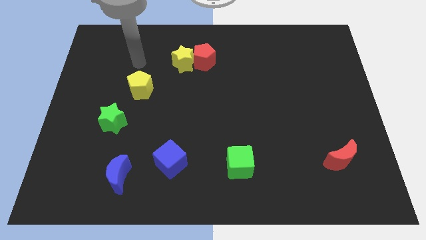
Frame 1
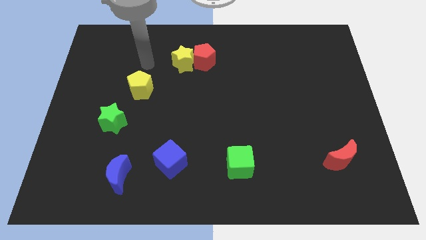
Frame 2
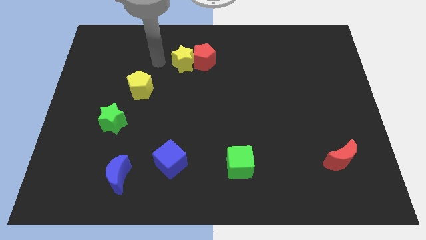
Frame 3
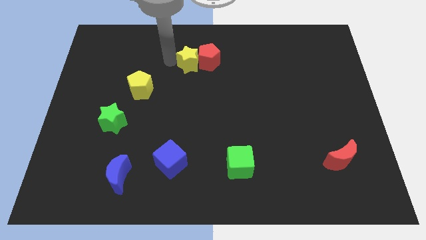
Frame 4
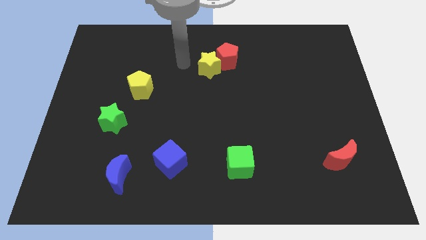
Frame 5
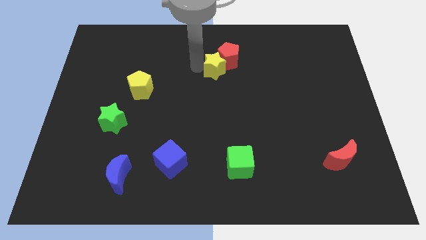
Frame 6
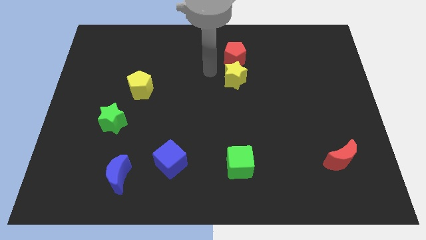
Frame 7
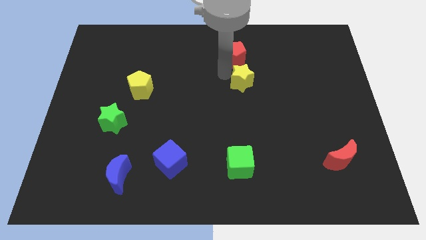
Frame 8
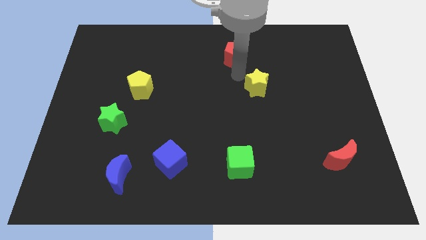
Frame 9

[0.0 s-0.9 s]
move the red pentagon away from the yellow star

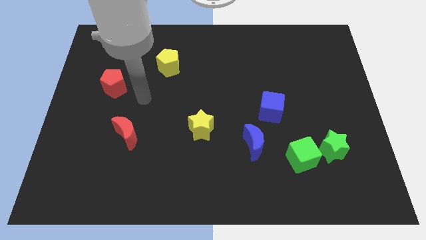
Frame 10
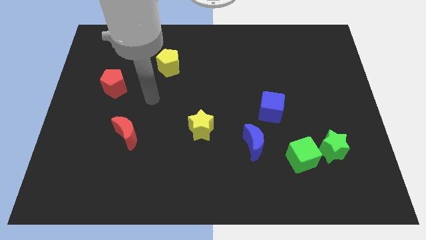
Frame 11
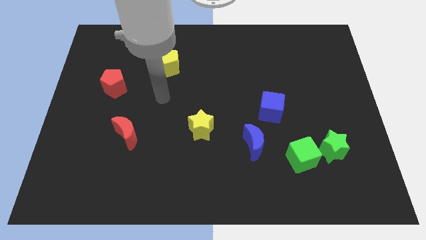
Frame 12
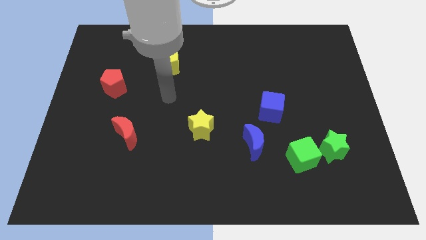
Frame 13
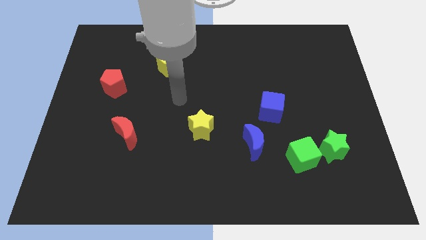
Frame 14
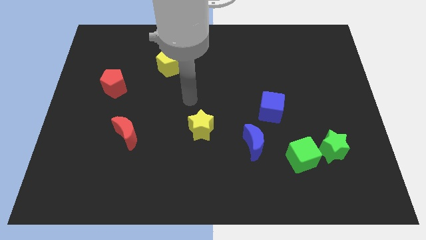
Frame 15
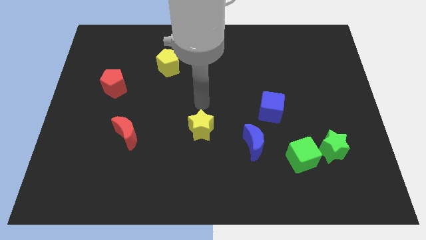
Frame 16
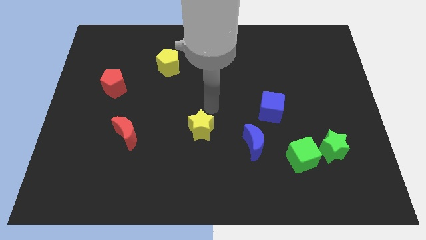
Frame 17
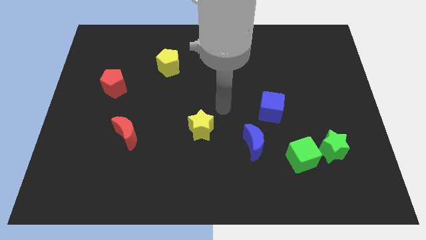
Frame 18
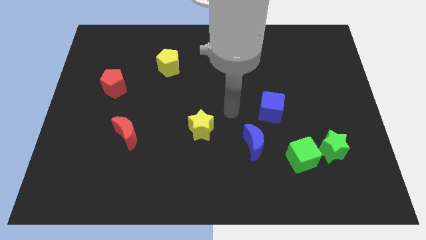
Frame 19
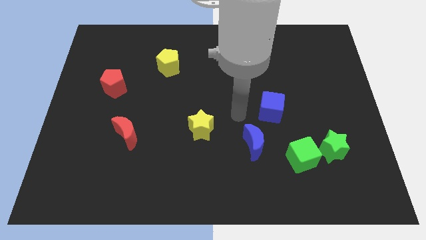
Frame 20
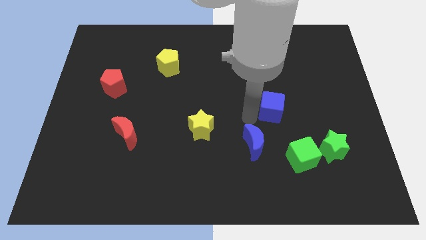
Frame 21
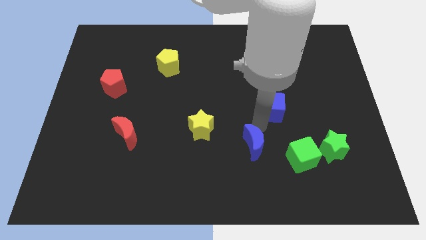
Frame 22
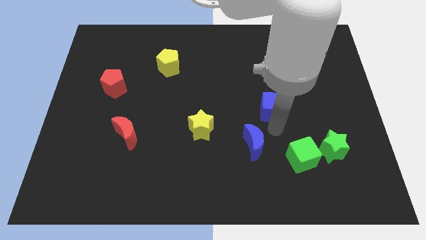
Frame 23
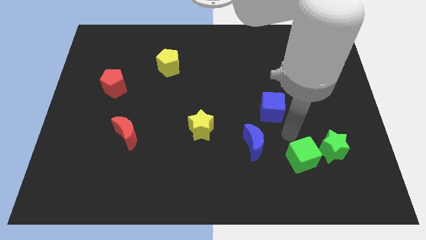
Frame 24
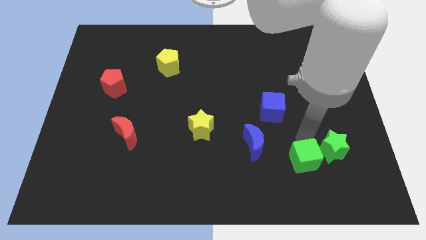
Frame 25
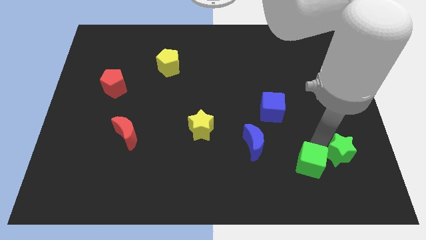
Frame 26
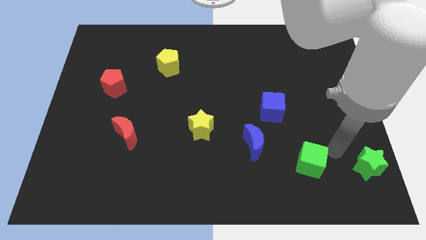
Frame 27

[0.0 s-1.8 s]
pull the green cube apart from the green star

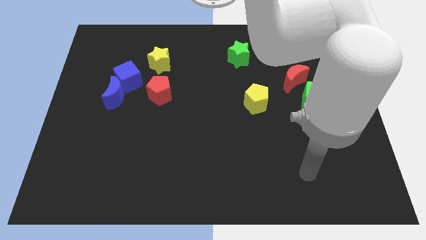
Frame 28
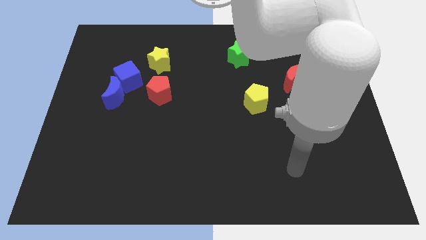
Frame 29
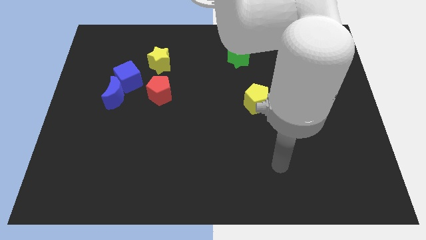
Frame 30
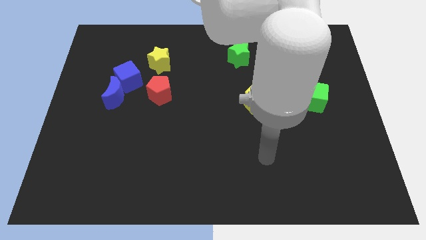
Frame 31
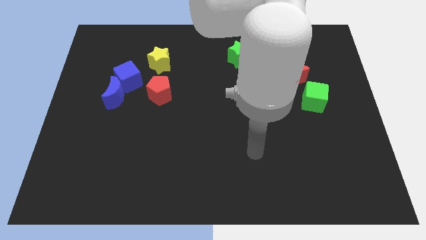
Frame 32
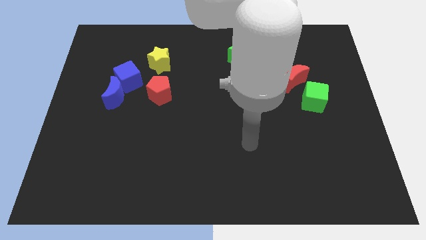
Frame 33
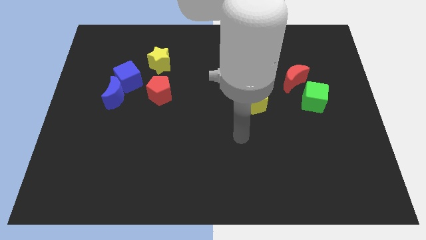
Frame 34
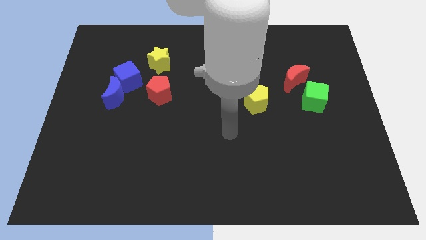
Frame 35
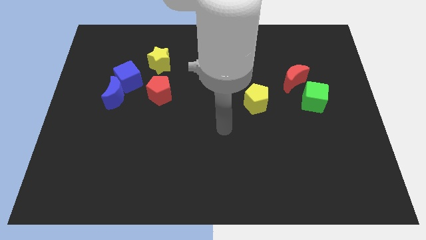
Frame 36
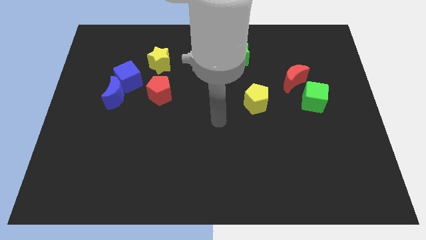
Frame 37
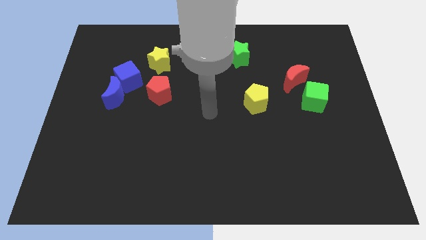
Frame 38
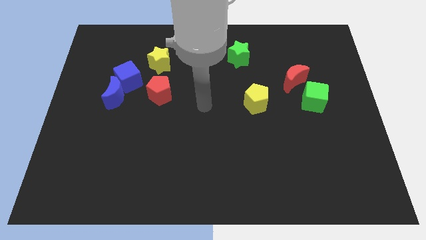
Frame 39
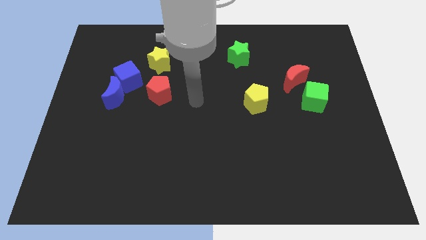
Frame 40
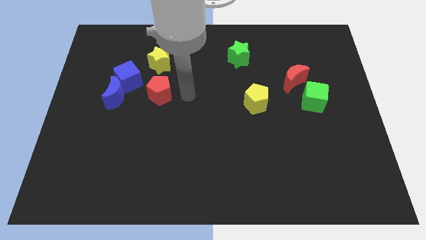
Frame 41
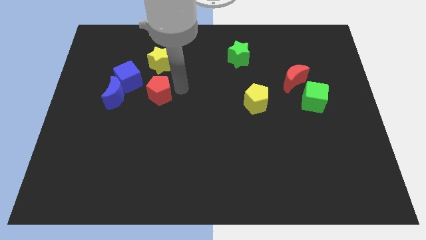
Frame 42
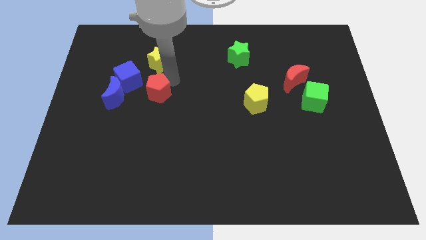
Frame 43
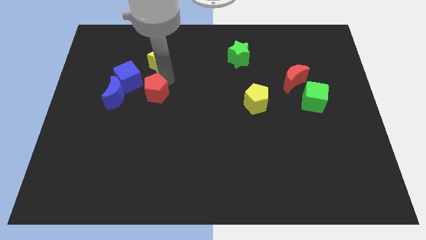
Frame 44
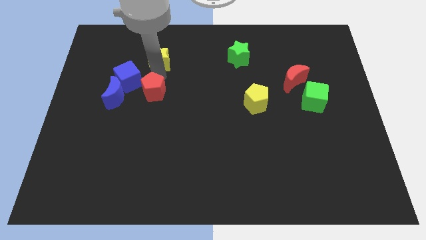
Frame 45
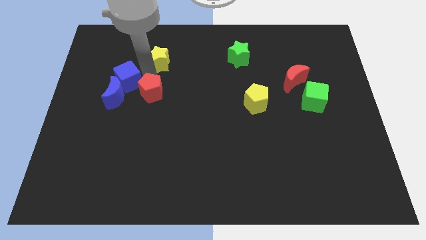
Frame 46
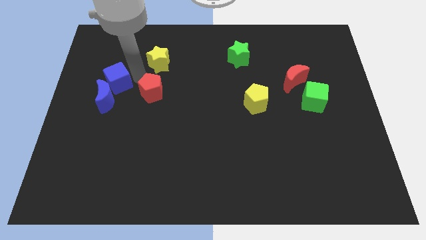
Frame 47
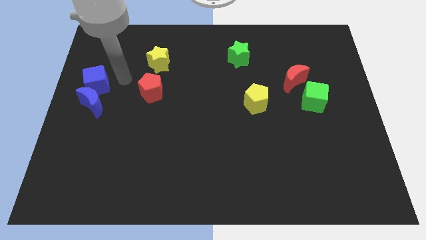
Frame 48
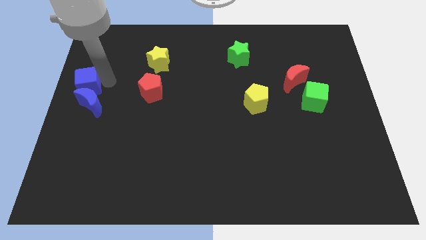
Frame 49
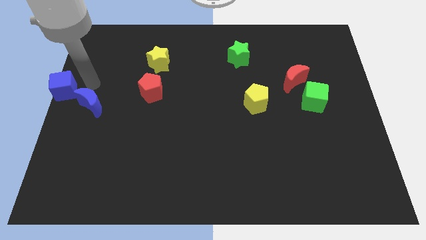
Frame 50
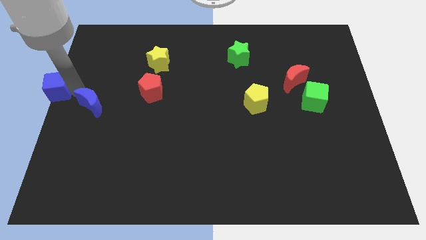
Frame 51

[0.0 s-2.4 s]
pull the blue moon apart from the blue cube

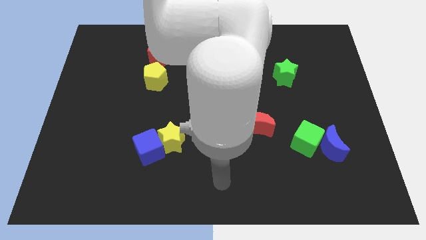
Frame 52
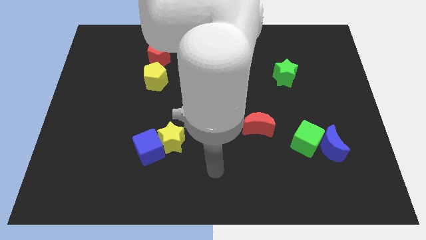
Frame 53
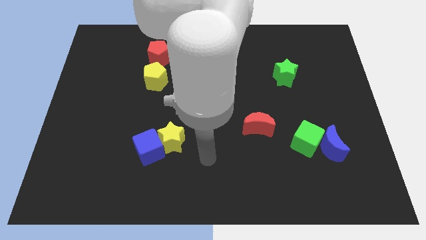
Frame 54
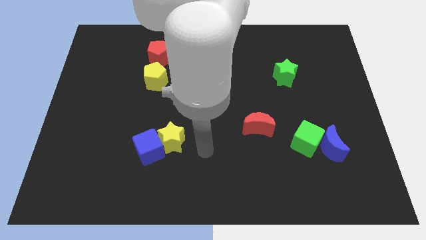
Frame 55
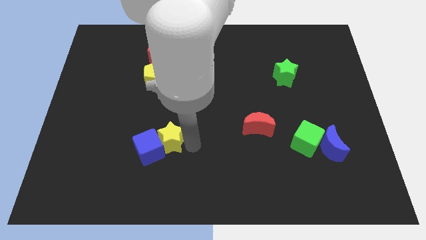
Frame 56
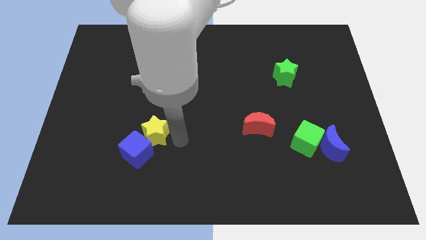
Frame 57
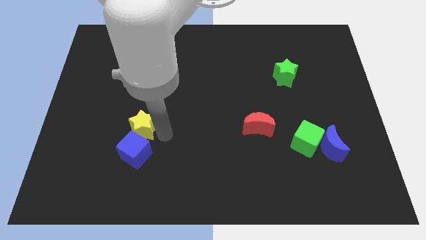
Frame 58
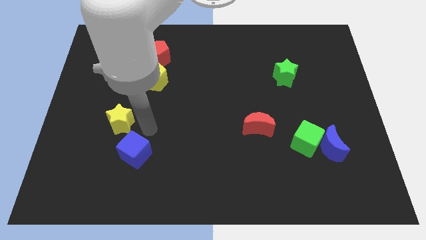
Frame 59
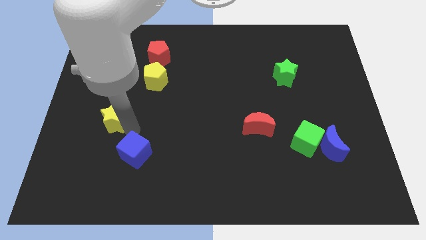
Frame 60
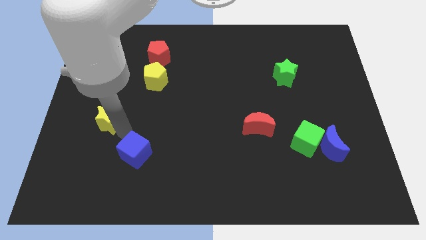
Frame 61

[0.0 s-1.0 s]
move the blue cube away from the yellow star

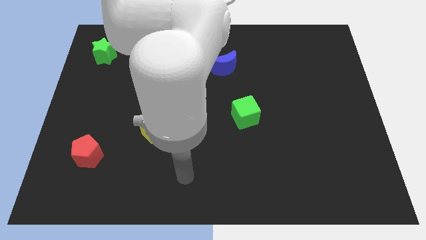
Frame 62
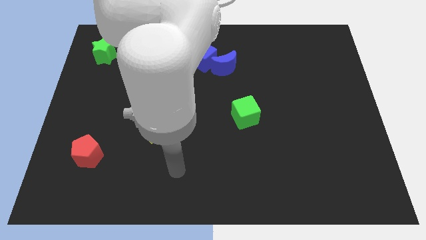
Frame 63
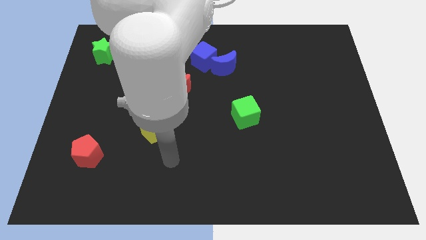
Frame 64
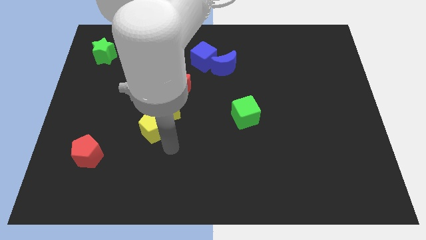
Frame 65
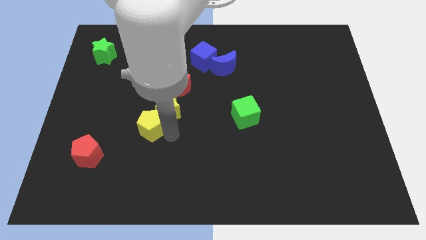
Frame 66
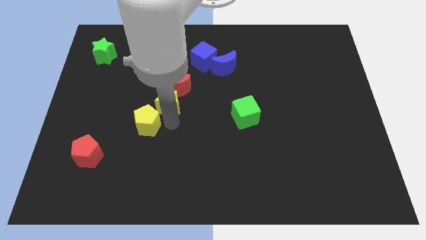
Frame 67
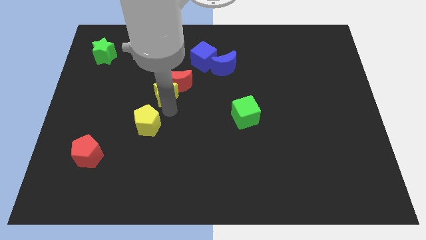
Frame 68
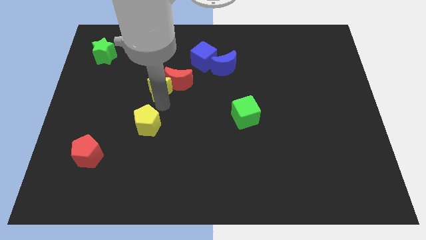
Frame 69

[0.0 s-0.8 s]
move the yellow pentagon away from the yellow star

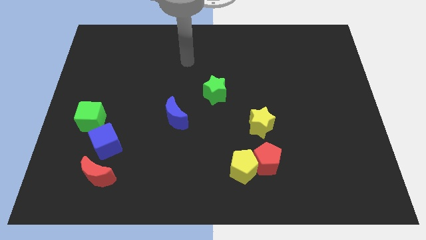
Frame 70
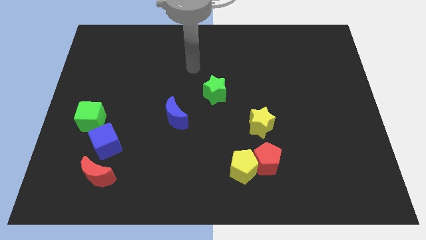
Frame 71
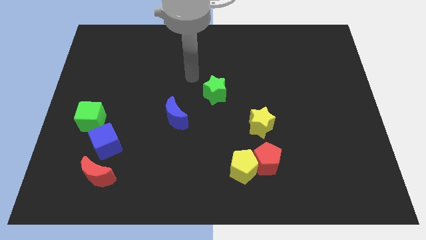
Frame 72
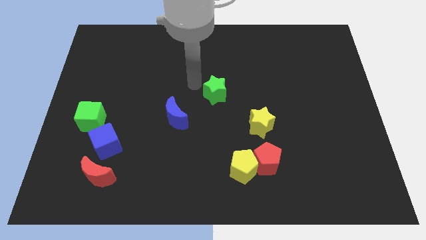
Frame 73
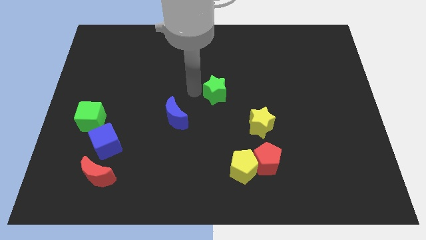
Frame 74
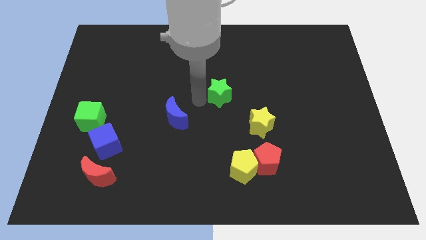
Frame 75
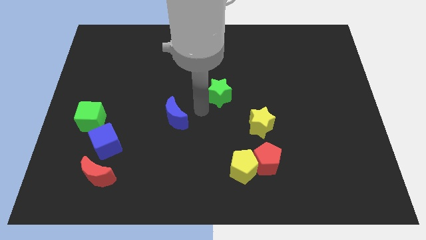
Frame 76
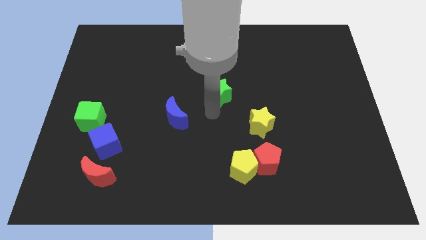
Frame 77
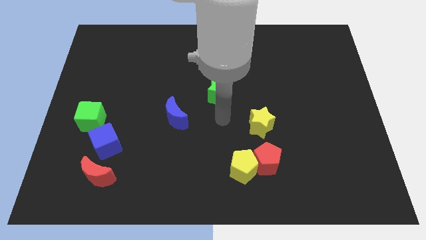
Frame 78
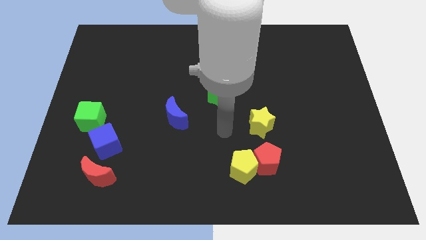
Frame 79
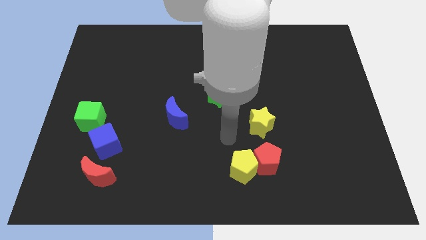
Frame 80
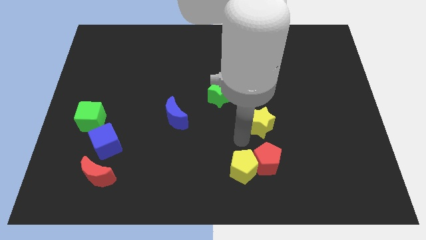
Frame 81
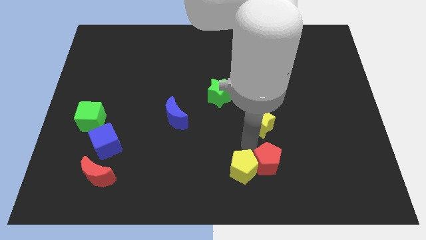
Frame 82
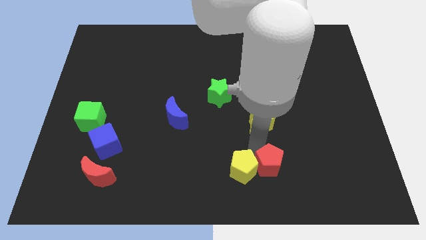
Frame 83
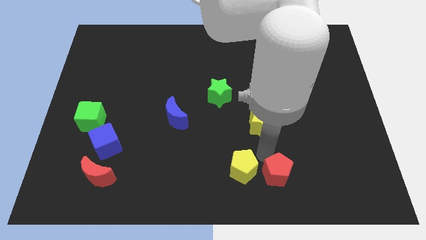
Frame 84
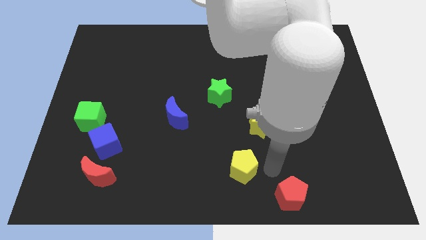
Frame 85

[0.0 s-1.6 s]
move the yellow pentagon away from the red pentagon

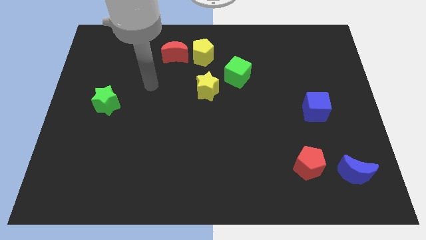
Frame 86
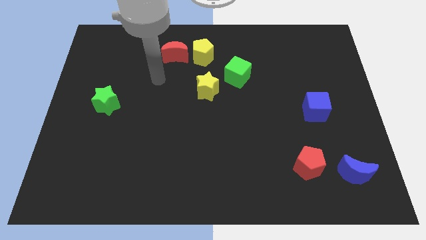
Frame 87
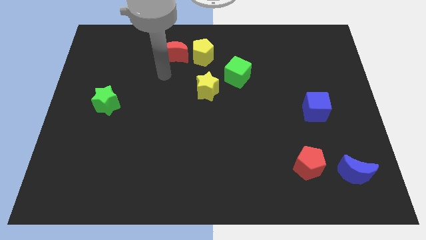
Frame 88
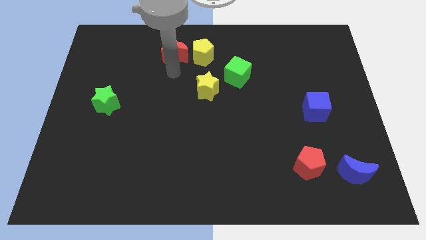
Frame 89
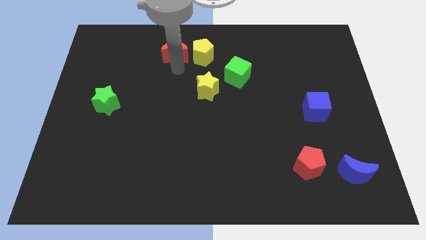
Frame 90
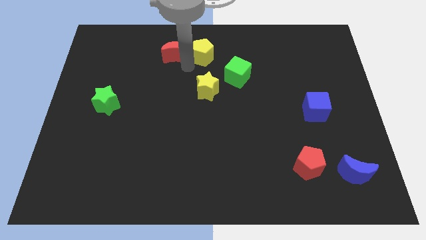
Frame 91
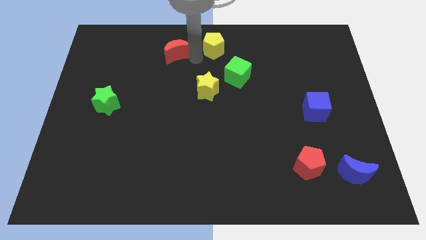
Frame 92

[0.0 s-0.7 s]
move the red moon away from the yellow pentagon
